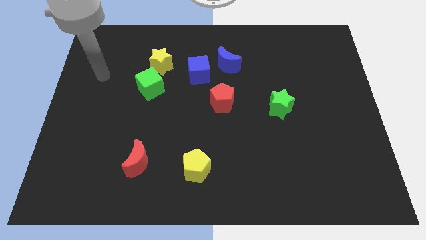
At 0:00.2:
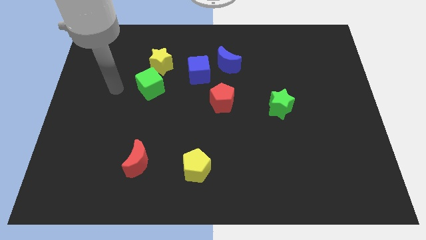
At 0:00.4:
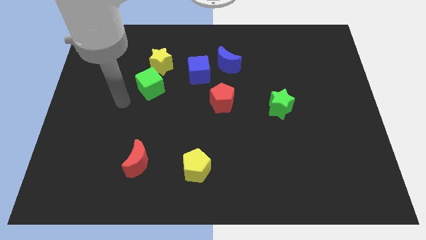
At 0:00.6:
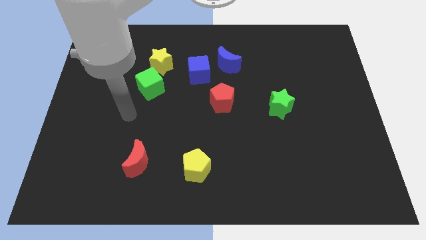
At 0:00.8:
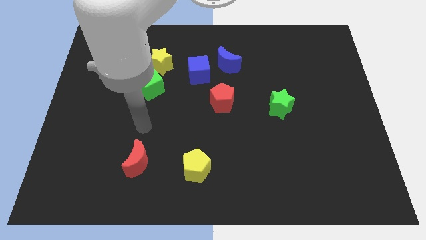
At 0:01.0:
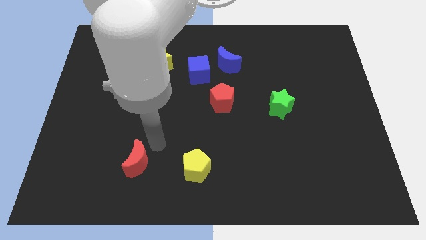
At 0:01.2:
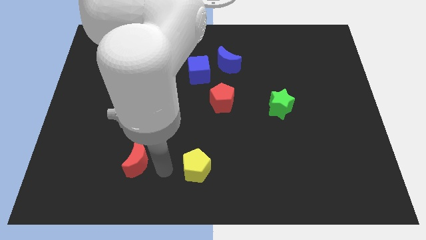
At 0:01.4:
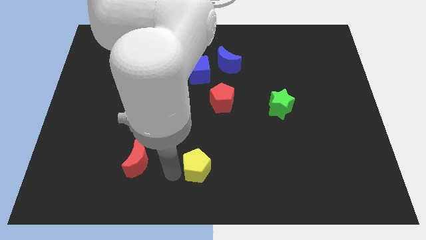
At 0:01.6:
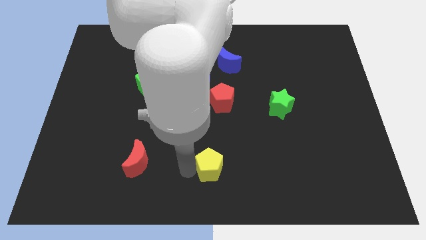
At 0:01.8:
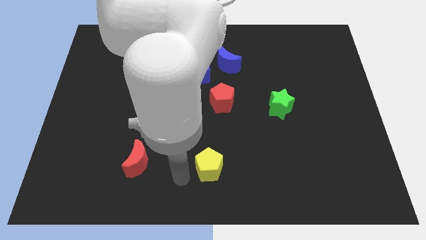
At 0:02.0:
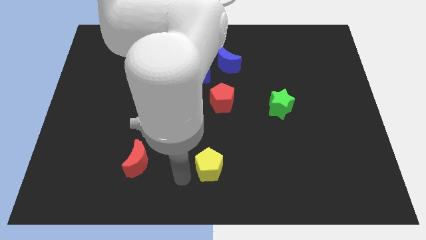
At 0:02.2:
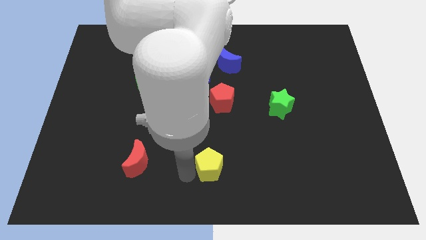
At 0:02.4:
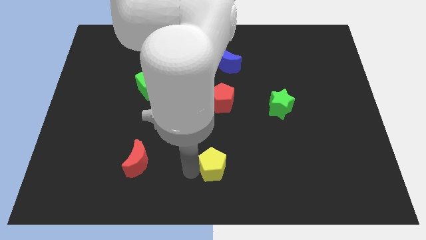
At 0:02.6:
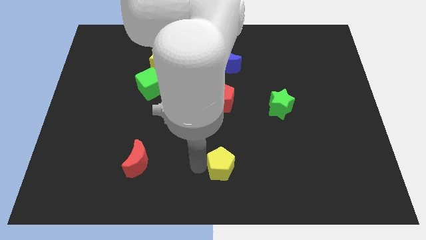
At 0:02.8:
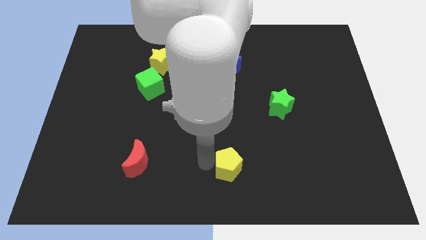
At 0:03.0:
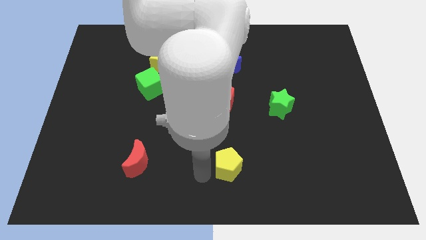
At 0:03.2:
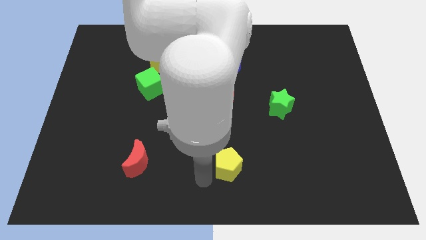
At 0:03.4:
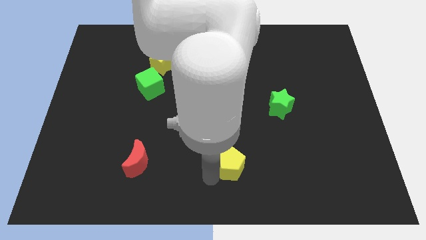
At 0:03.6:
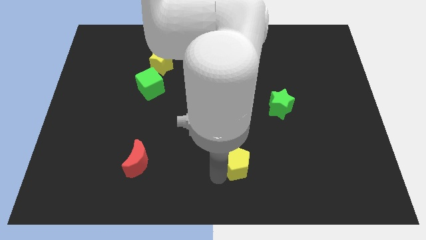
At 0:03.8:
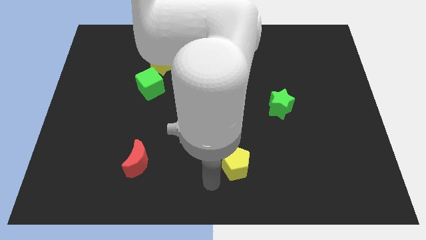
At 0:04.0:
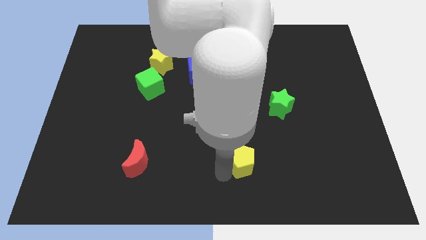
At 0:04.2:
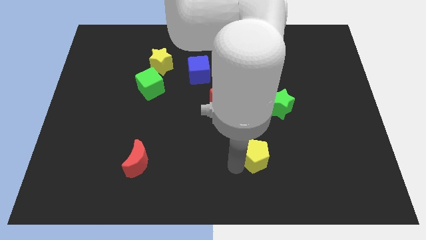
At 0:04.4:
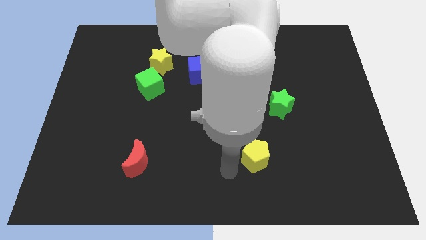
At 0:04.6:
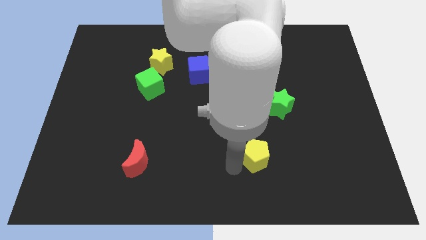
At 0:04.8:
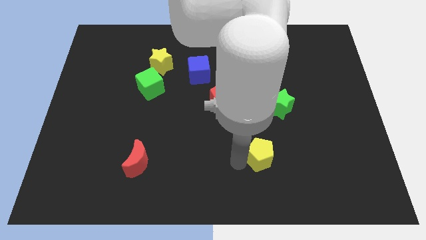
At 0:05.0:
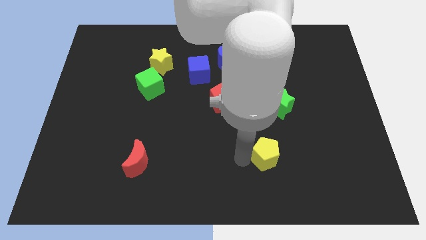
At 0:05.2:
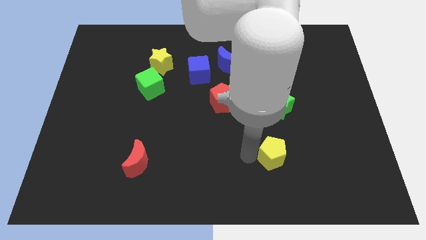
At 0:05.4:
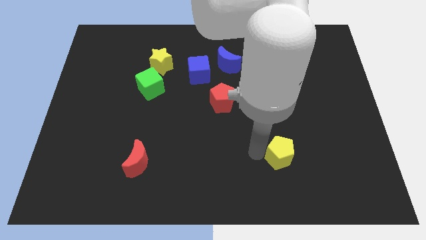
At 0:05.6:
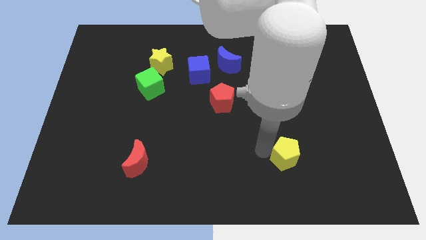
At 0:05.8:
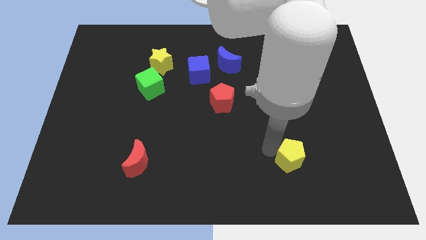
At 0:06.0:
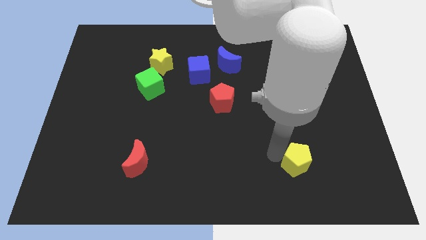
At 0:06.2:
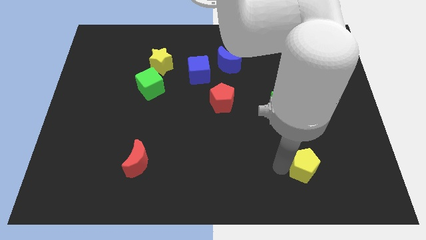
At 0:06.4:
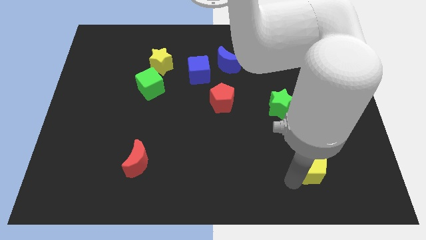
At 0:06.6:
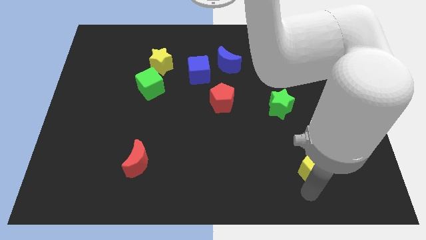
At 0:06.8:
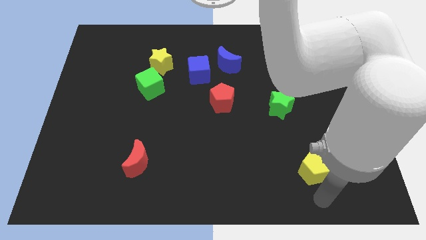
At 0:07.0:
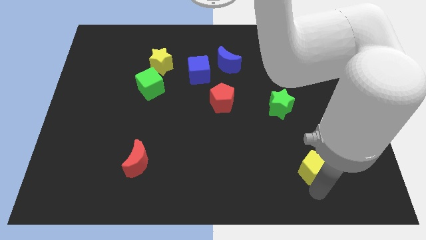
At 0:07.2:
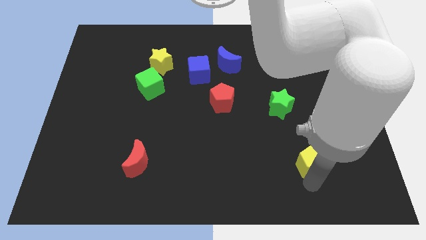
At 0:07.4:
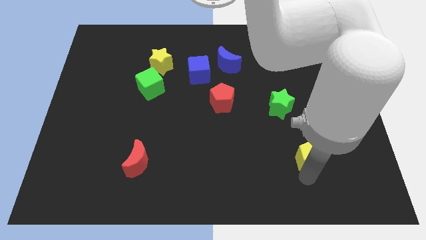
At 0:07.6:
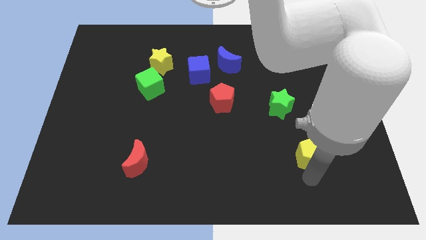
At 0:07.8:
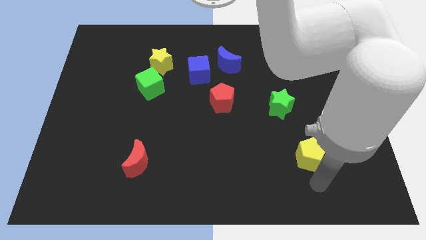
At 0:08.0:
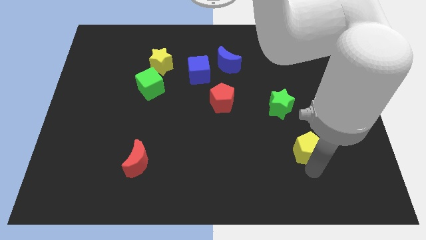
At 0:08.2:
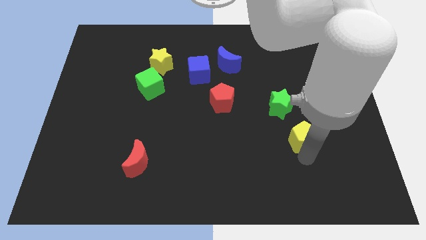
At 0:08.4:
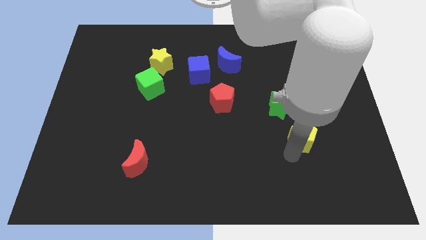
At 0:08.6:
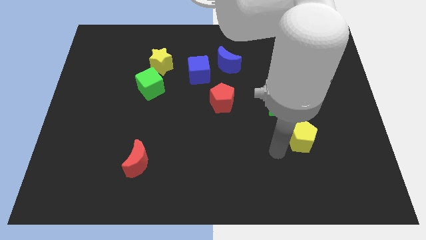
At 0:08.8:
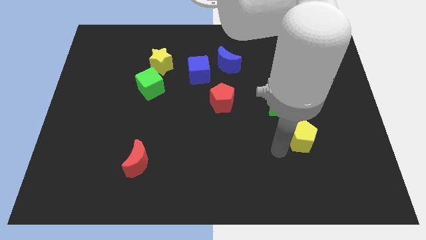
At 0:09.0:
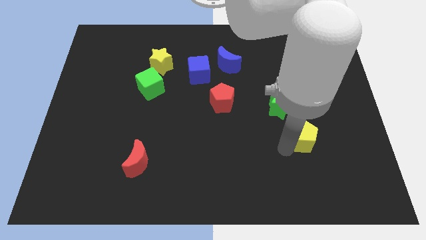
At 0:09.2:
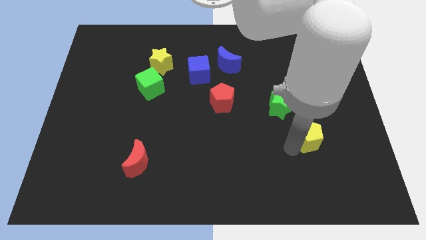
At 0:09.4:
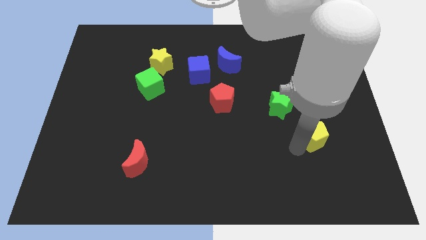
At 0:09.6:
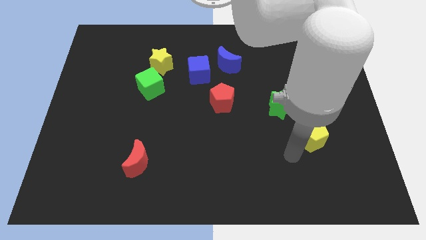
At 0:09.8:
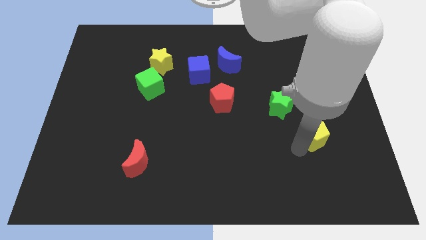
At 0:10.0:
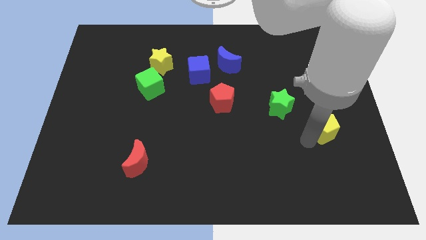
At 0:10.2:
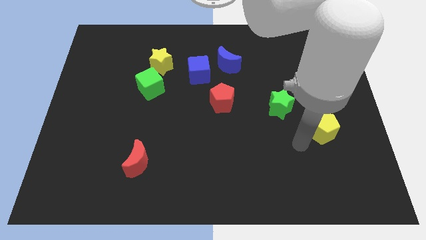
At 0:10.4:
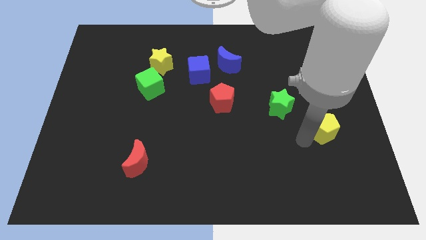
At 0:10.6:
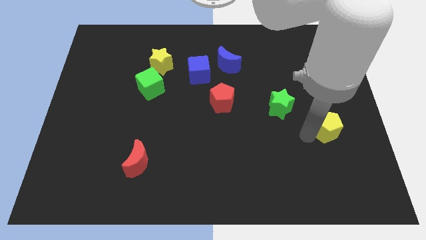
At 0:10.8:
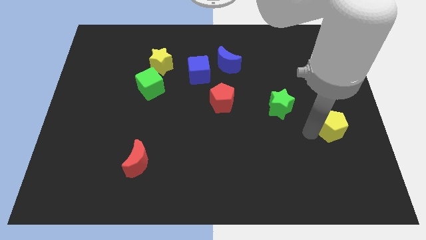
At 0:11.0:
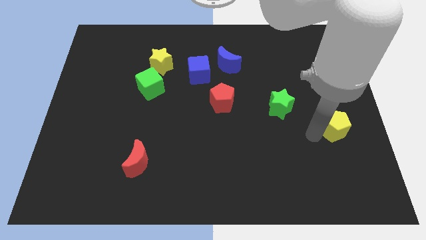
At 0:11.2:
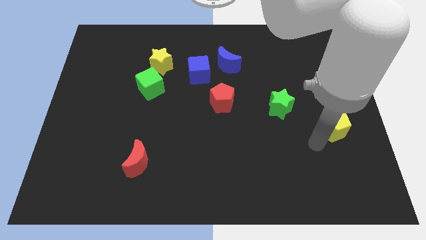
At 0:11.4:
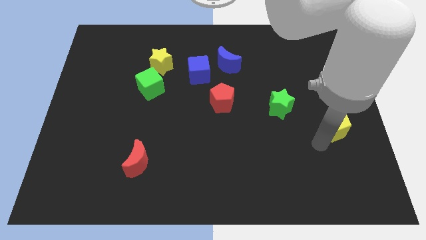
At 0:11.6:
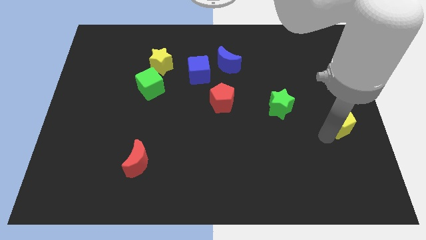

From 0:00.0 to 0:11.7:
move the yellow pentagon to the center right

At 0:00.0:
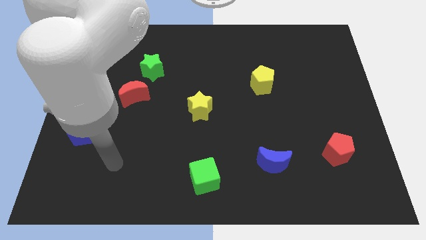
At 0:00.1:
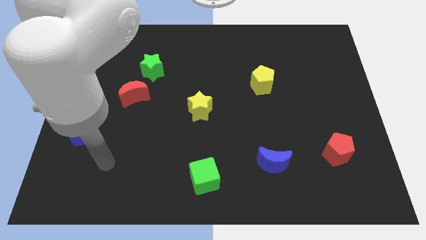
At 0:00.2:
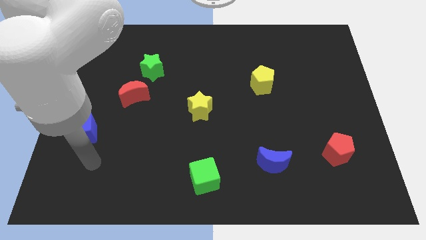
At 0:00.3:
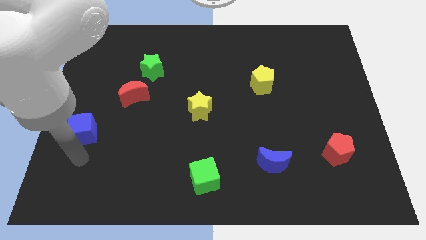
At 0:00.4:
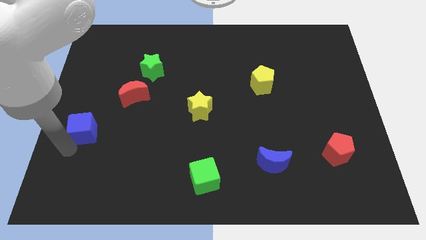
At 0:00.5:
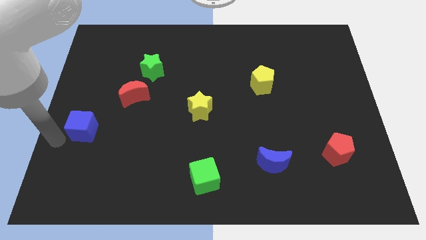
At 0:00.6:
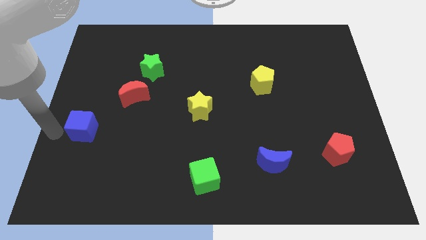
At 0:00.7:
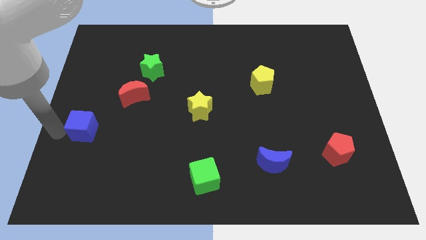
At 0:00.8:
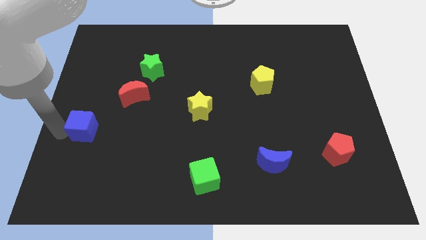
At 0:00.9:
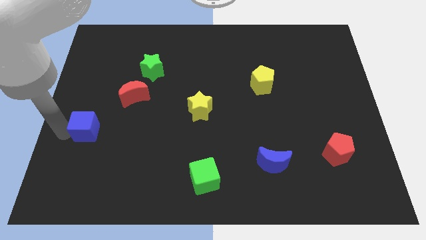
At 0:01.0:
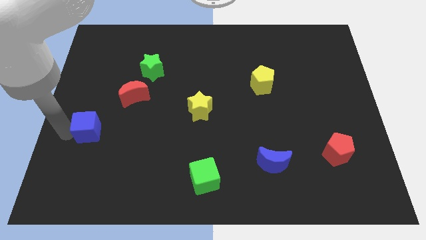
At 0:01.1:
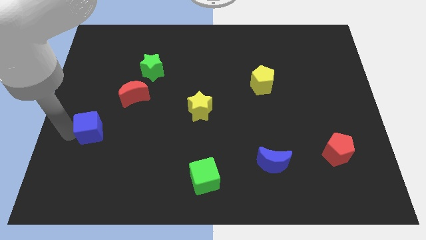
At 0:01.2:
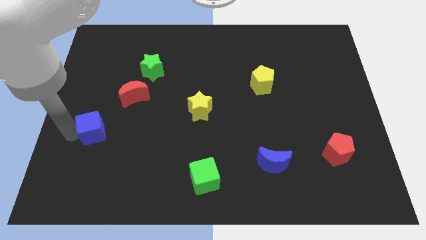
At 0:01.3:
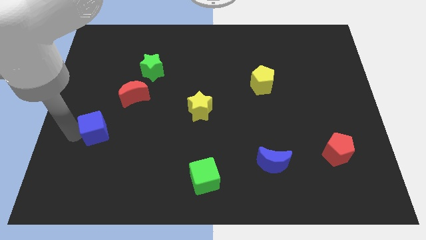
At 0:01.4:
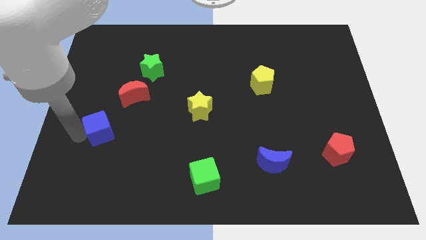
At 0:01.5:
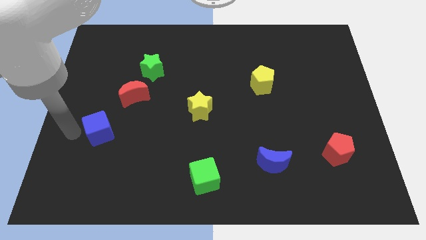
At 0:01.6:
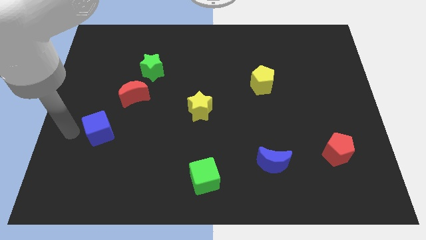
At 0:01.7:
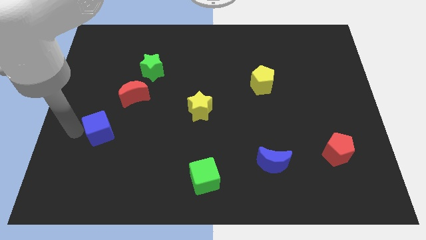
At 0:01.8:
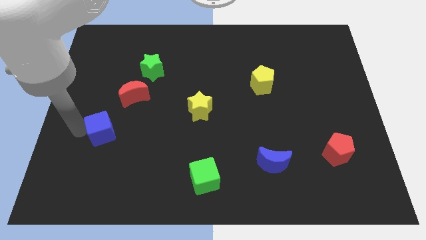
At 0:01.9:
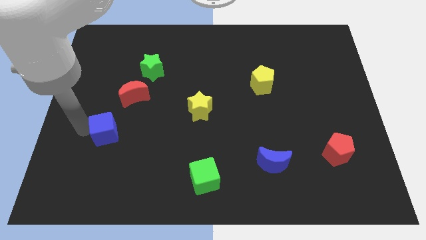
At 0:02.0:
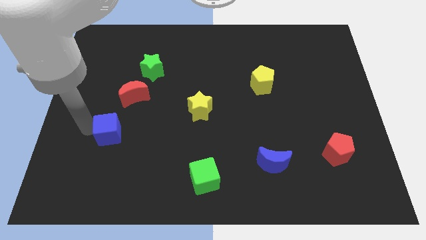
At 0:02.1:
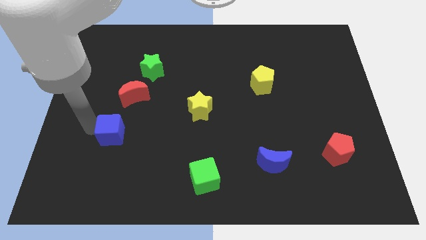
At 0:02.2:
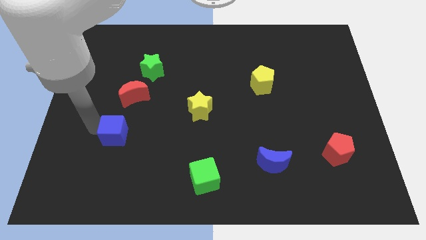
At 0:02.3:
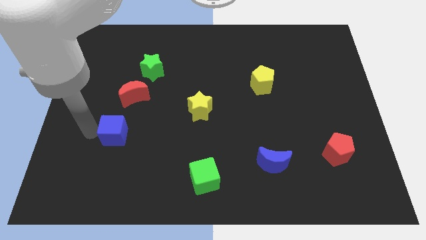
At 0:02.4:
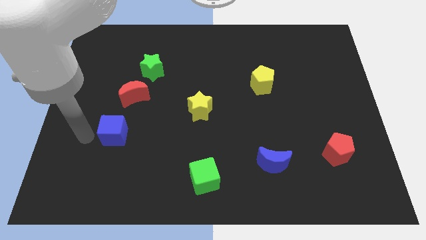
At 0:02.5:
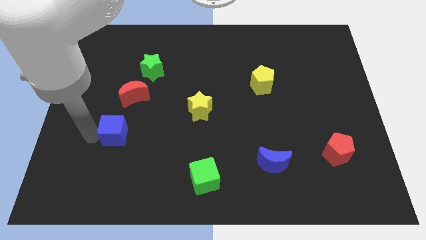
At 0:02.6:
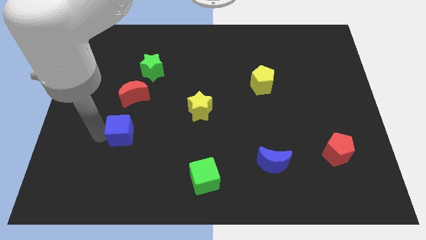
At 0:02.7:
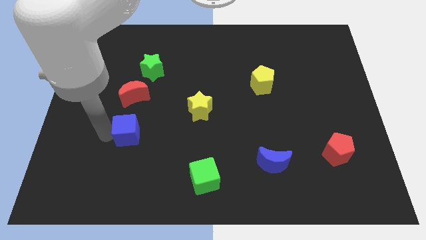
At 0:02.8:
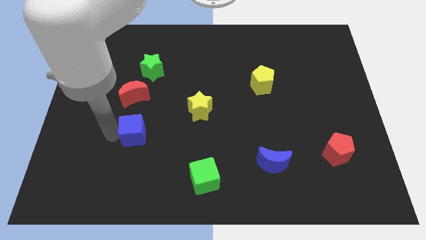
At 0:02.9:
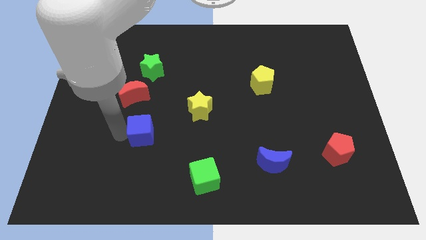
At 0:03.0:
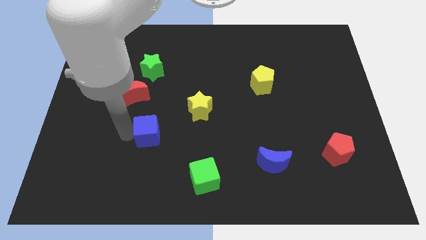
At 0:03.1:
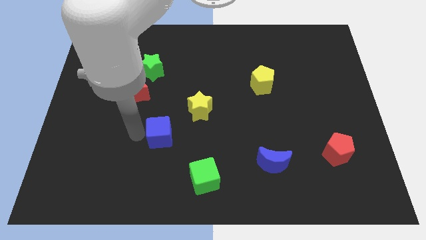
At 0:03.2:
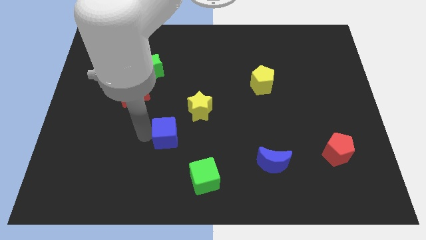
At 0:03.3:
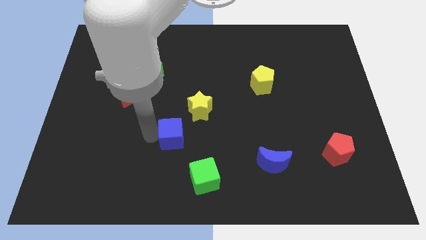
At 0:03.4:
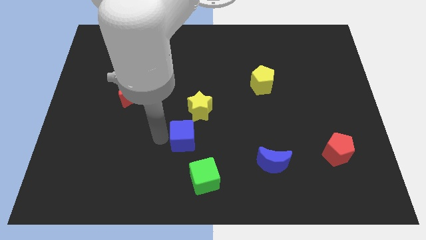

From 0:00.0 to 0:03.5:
move the blue cube to the center of the board
